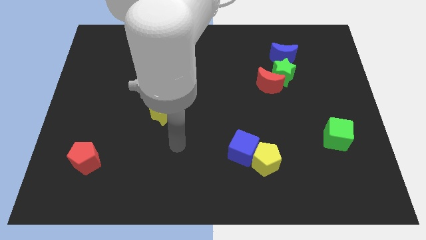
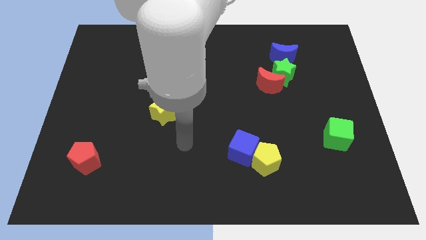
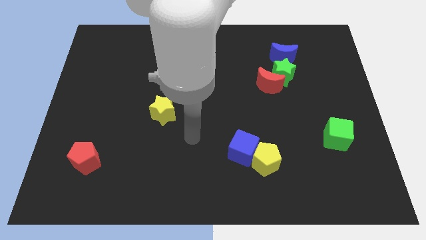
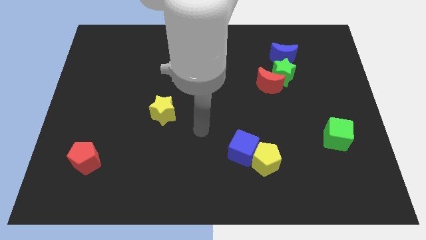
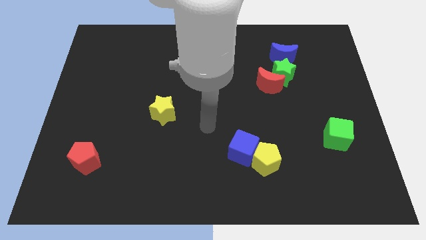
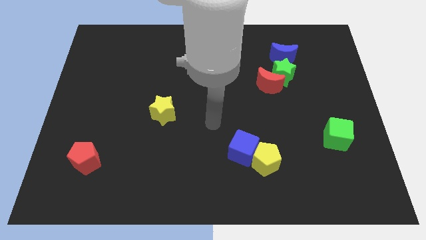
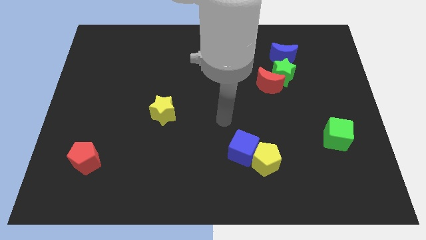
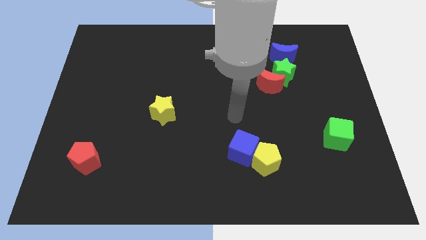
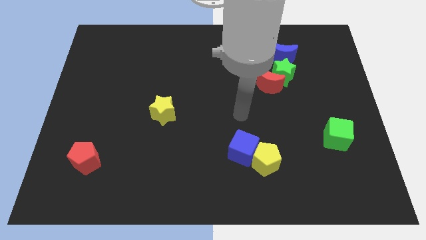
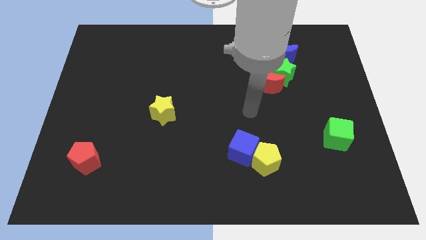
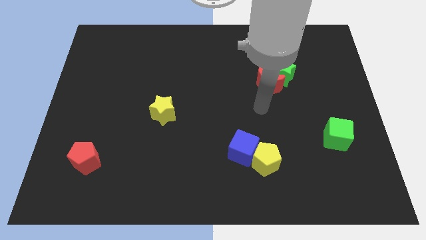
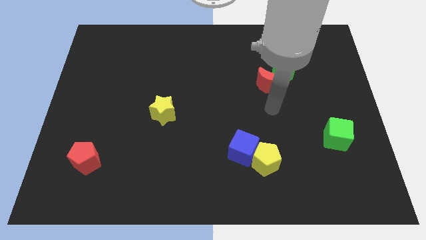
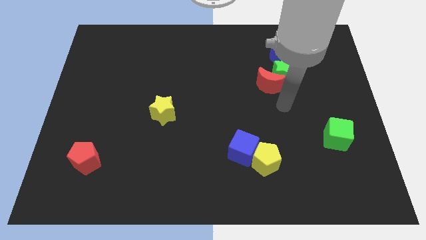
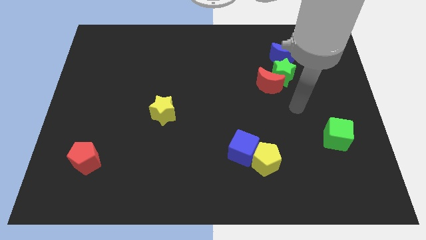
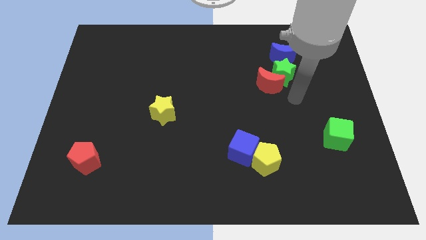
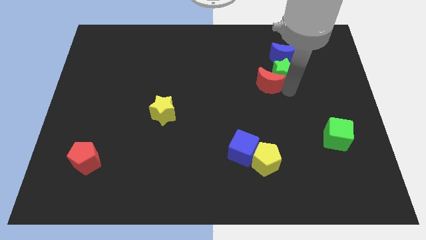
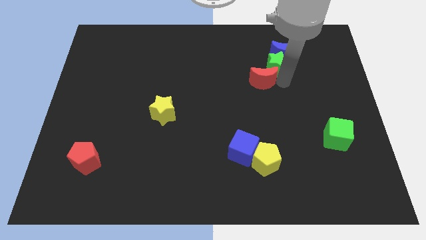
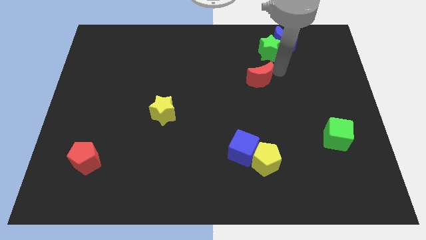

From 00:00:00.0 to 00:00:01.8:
move the red moon away from the green star

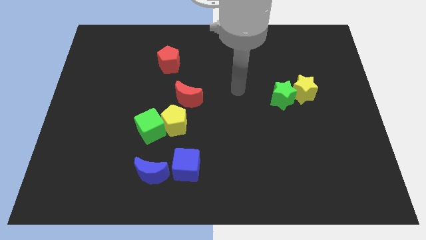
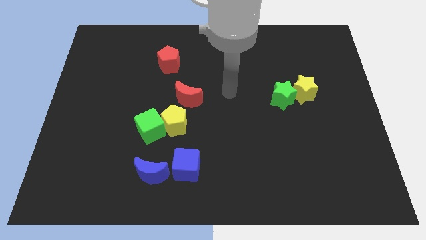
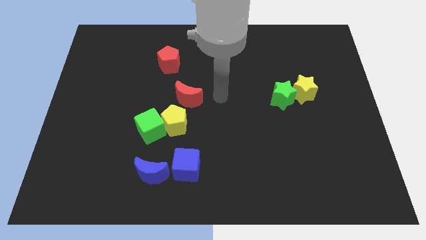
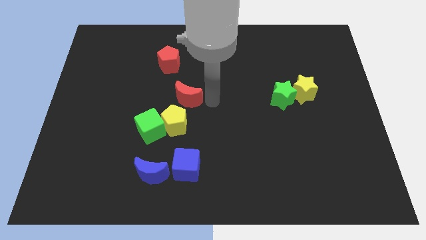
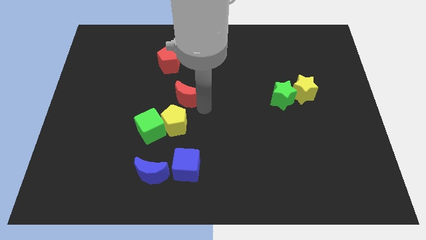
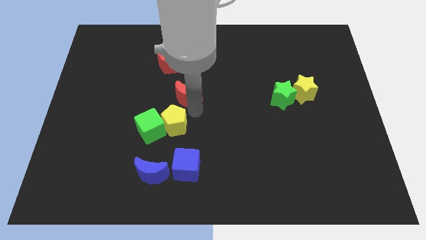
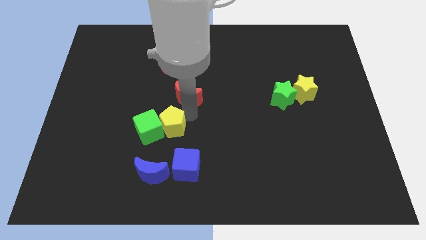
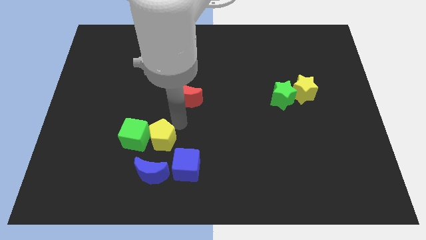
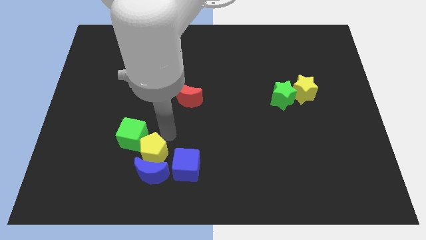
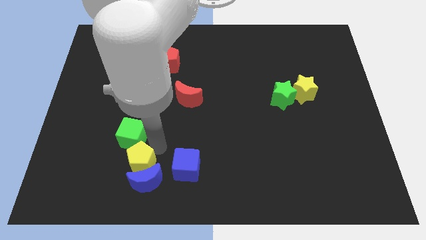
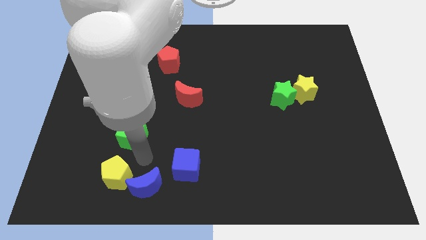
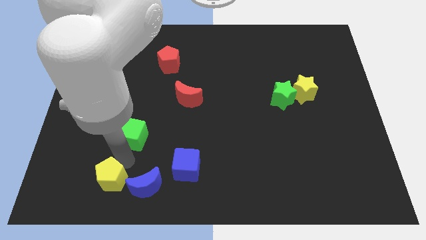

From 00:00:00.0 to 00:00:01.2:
move the green cube away from the yellow pentagon

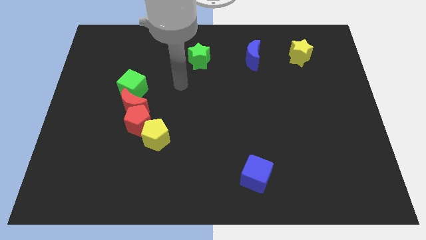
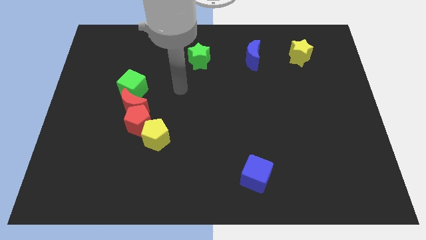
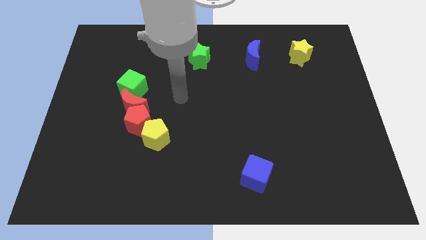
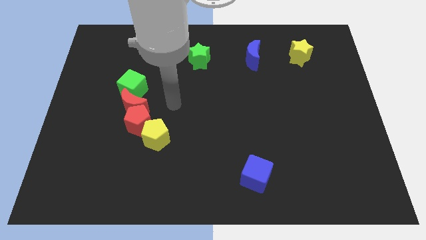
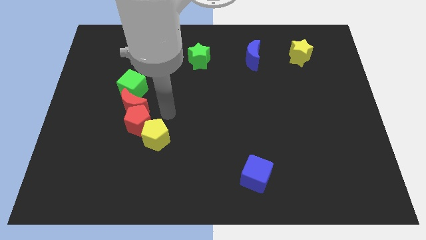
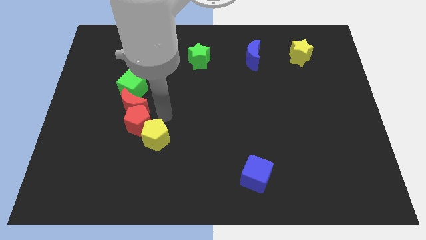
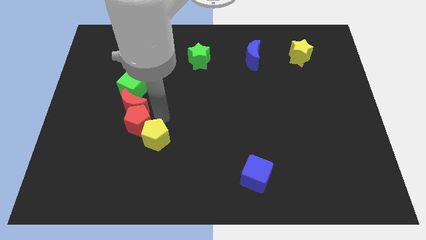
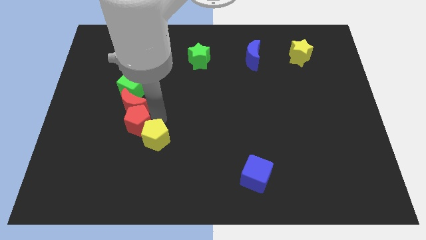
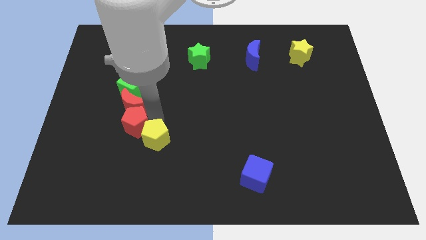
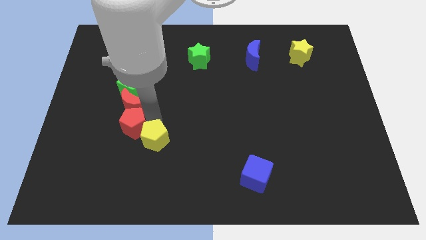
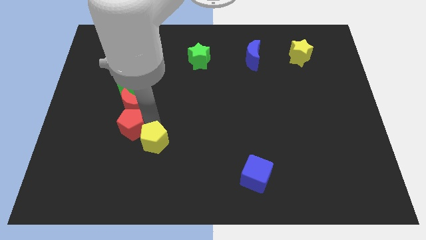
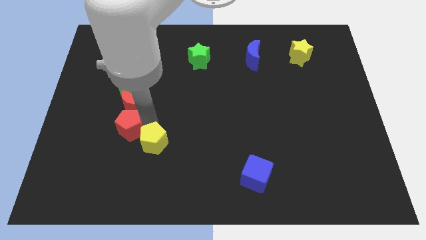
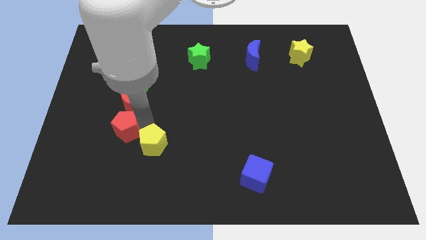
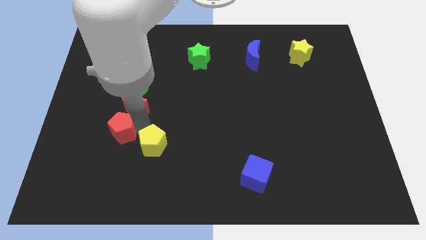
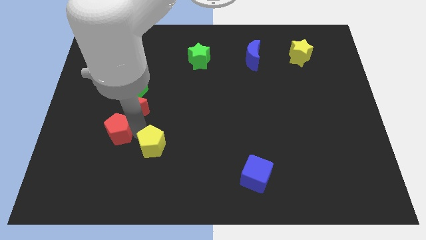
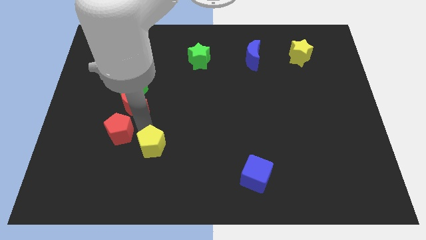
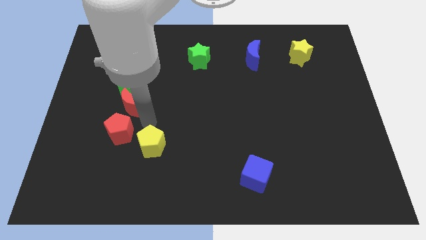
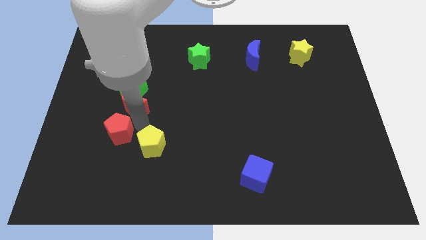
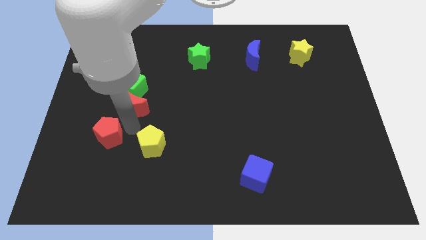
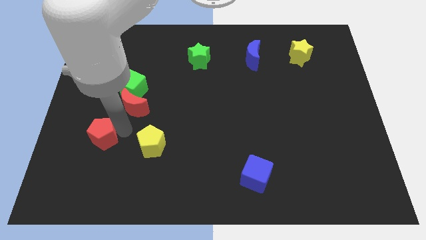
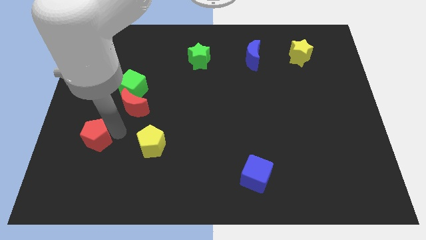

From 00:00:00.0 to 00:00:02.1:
pull the red pentagon apart from the red moon and yellow pentagon

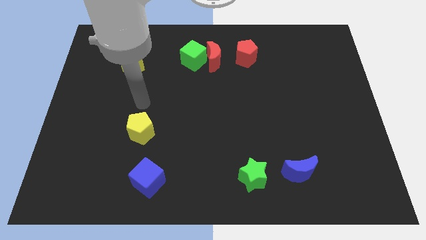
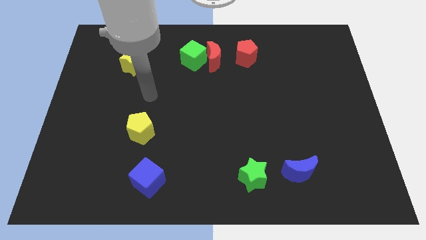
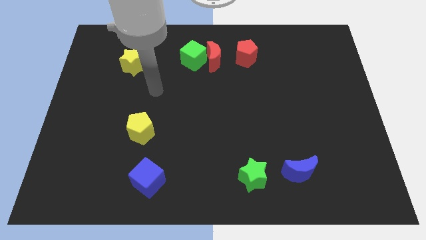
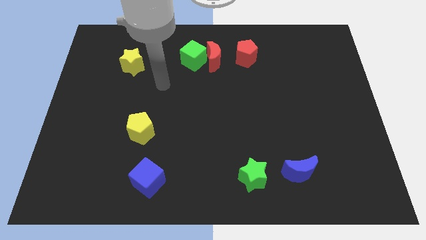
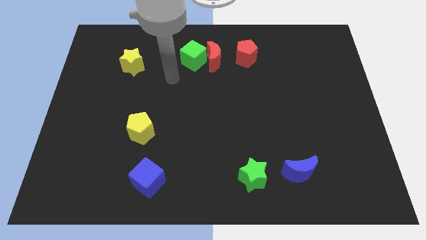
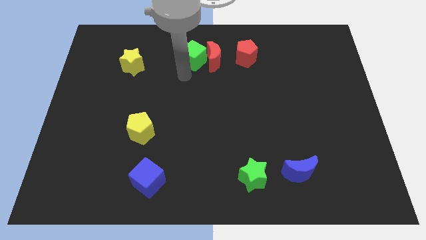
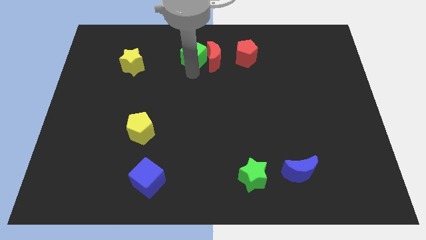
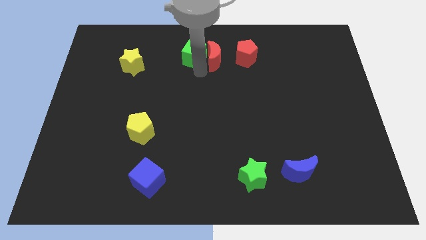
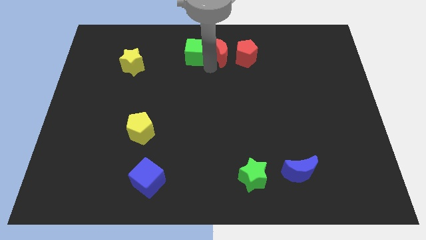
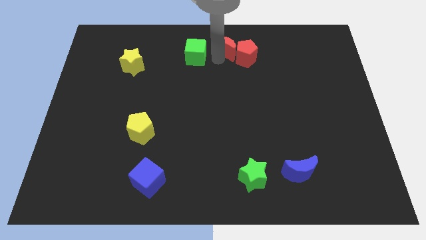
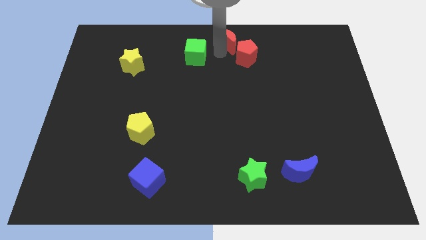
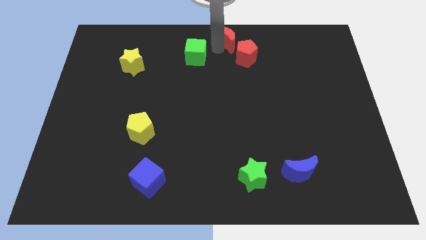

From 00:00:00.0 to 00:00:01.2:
move the green cube away from the red moon

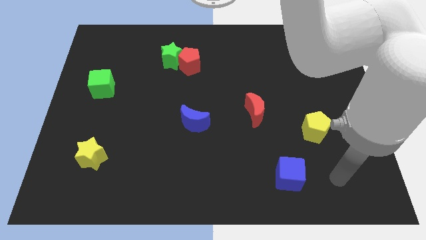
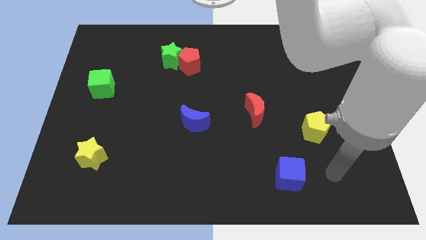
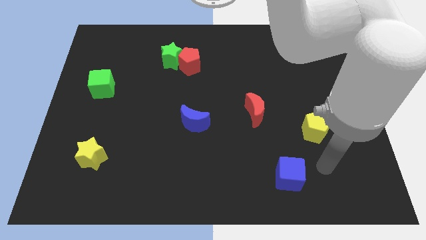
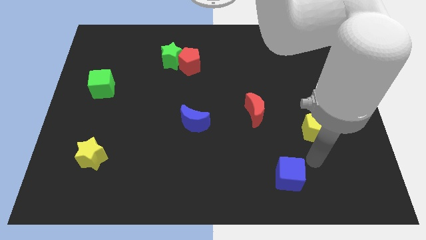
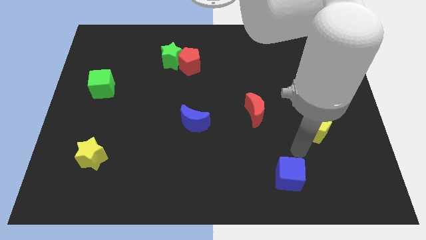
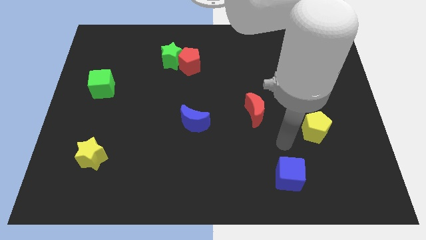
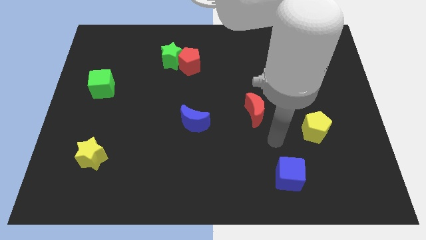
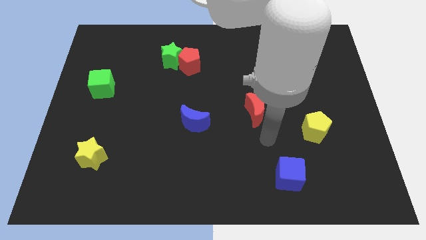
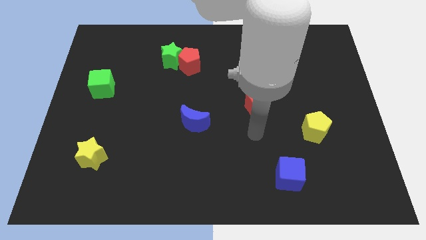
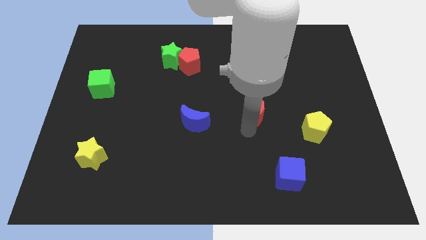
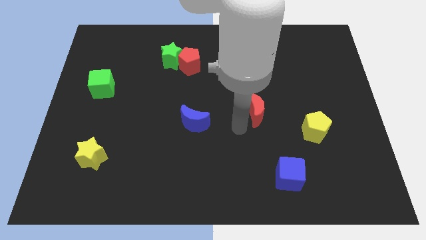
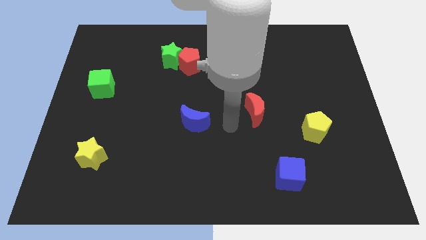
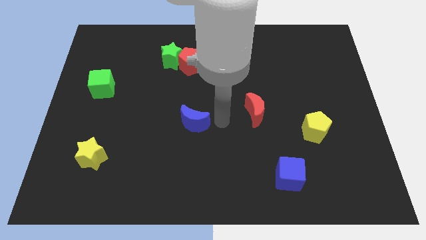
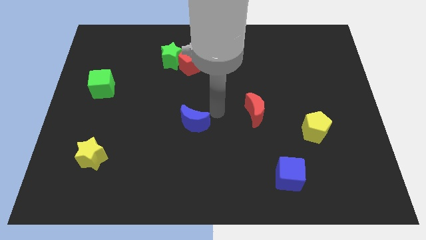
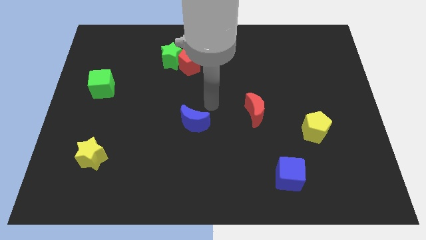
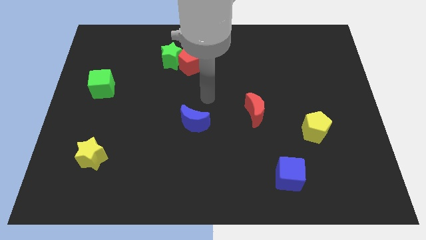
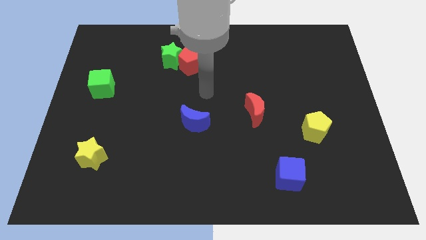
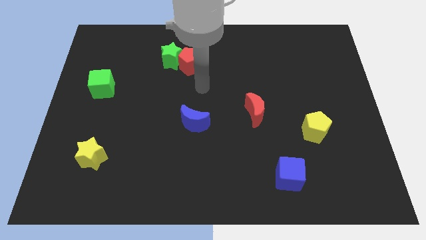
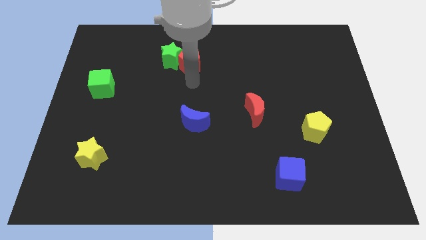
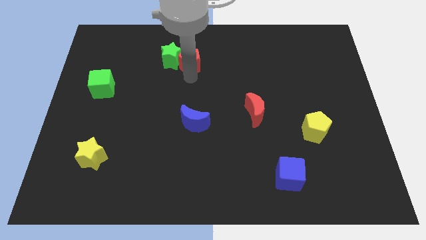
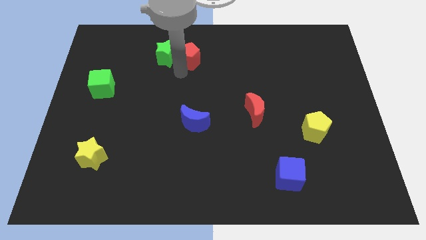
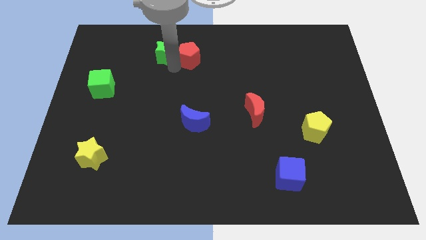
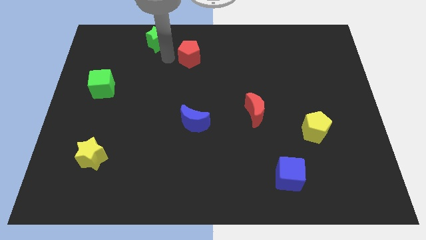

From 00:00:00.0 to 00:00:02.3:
pull the red pentagon apart from the green star

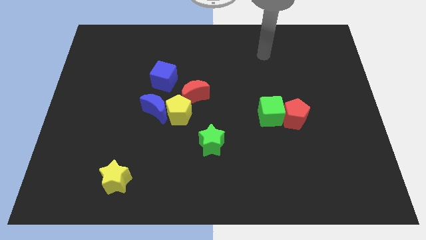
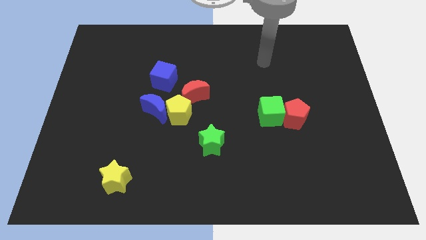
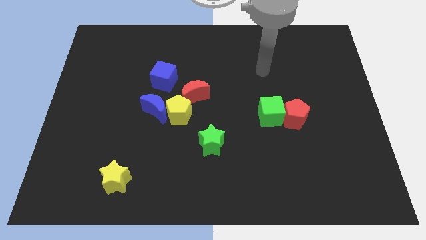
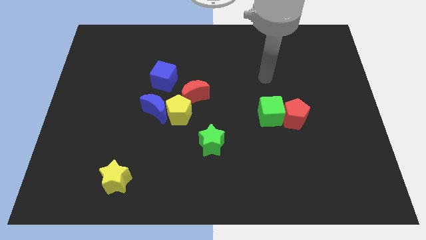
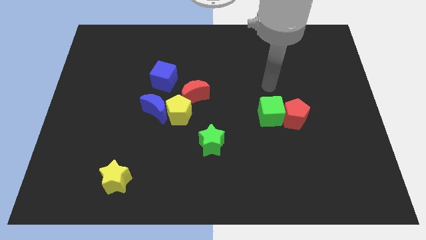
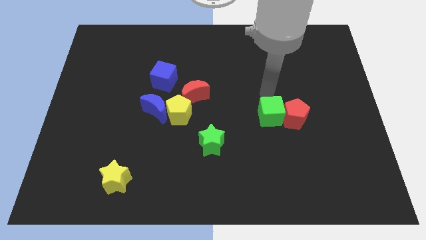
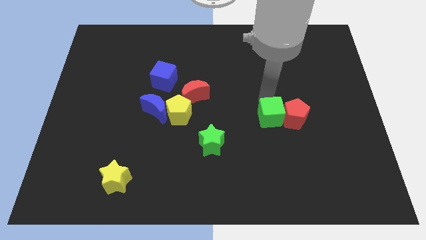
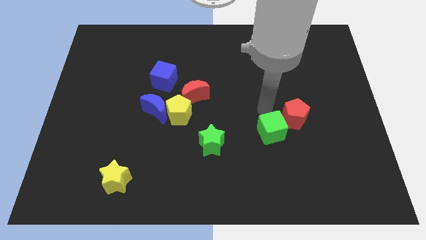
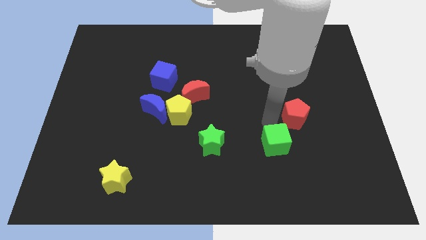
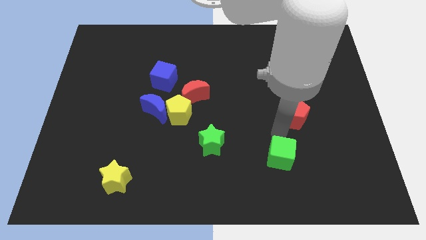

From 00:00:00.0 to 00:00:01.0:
move the red pentagon away from the green cube
